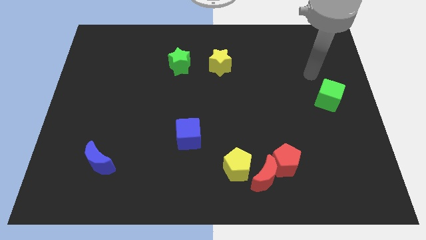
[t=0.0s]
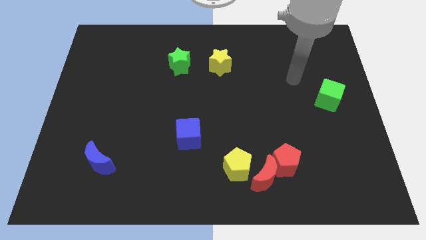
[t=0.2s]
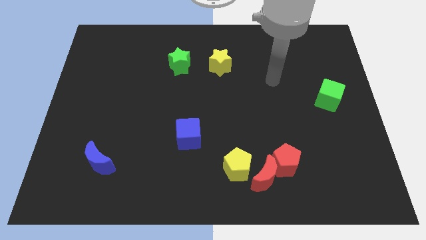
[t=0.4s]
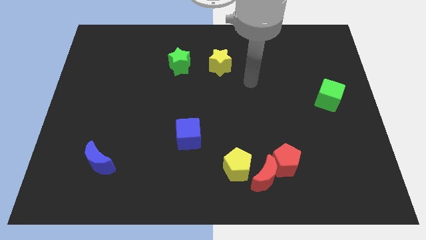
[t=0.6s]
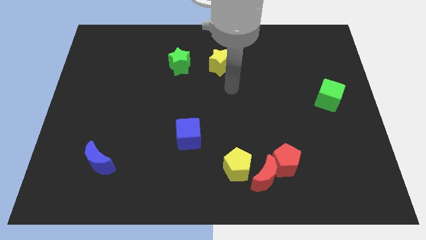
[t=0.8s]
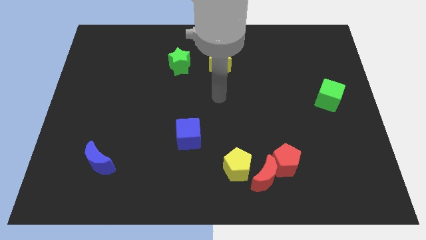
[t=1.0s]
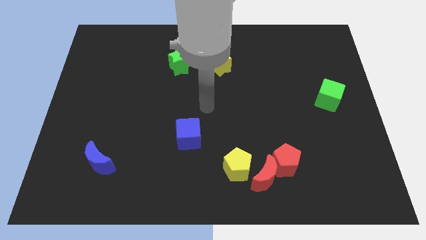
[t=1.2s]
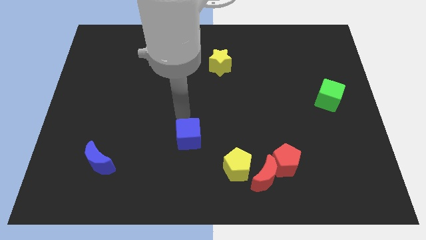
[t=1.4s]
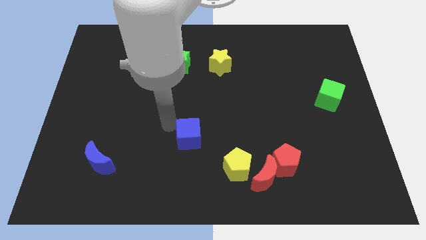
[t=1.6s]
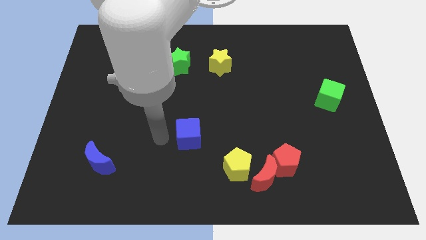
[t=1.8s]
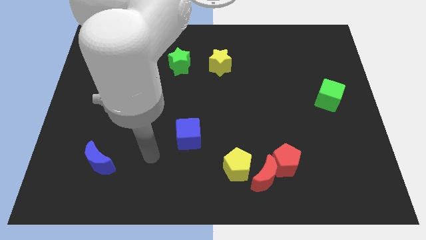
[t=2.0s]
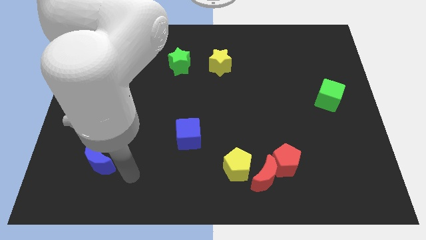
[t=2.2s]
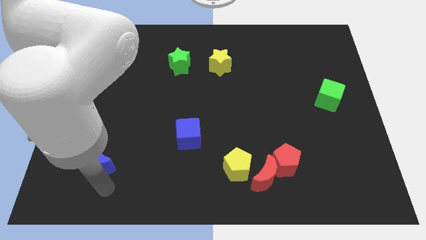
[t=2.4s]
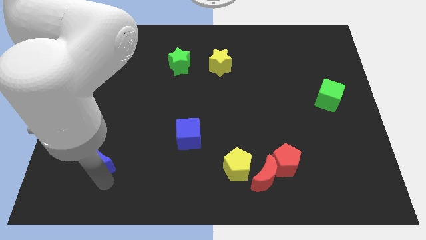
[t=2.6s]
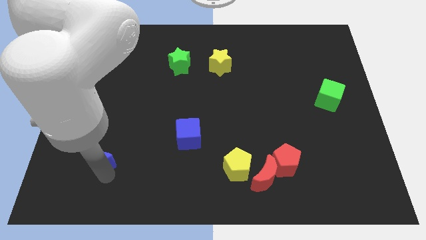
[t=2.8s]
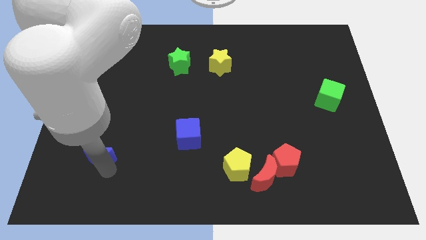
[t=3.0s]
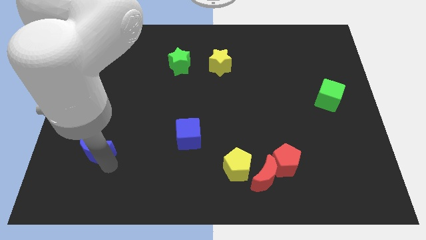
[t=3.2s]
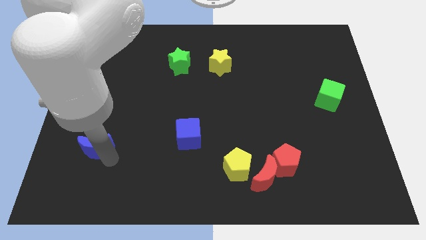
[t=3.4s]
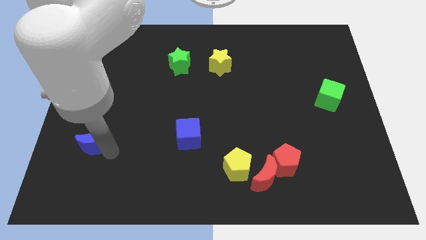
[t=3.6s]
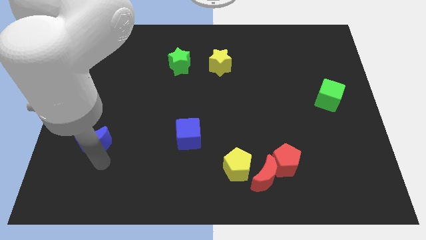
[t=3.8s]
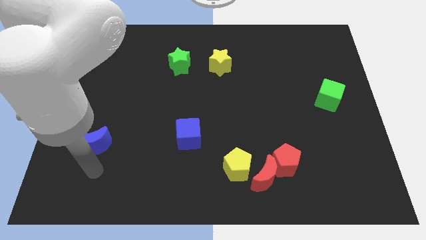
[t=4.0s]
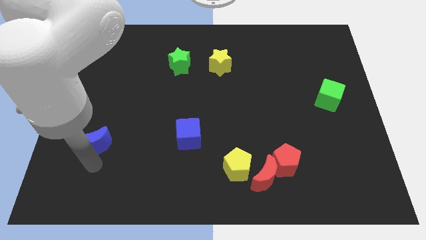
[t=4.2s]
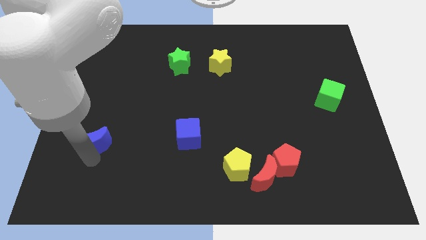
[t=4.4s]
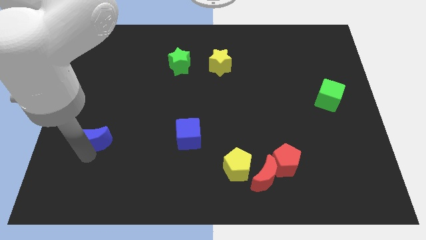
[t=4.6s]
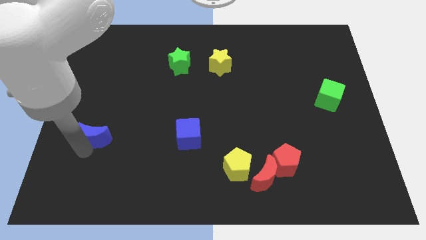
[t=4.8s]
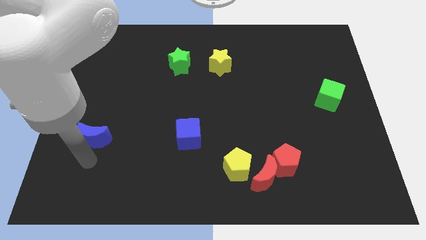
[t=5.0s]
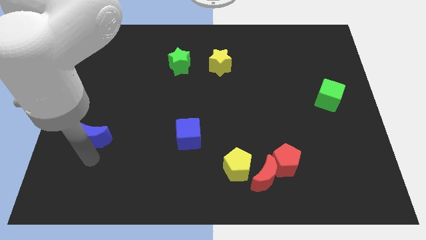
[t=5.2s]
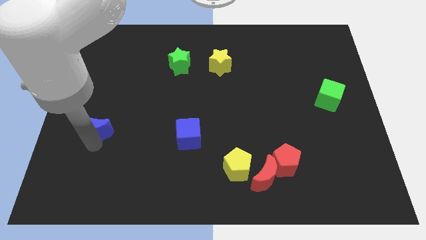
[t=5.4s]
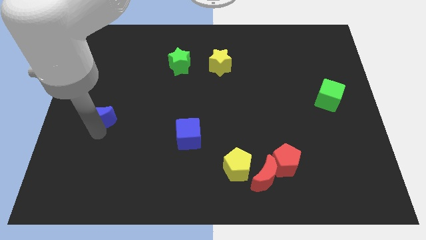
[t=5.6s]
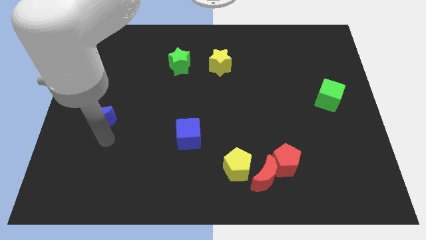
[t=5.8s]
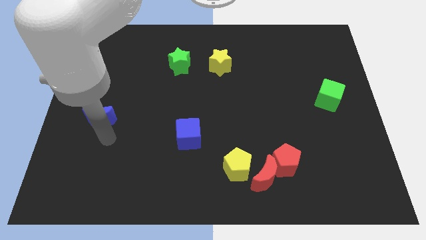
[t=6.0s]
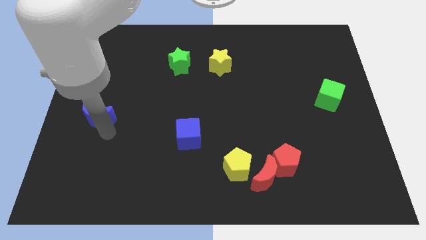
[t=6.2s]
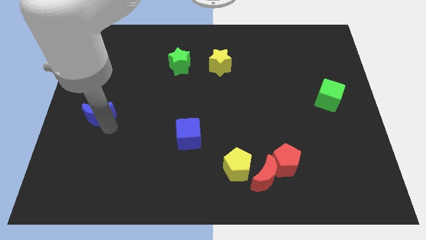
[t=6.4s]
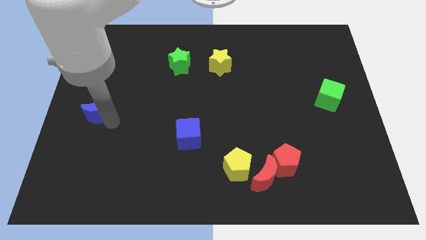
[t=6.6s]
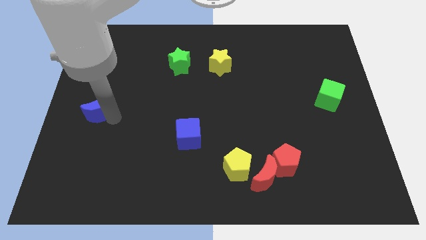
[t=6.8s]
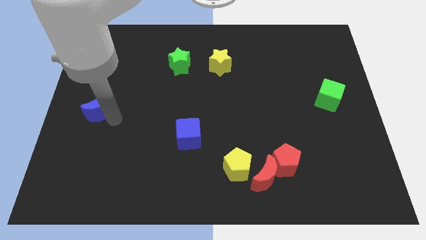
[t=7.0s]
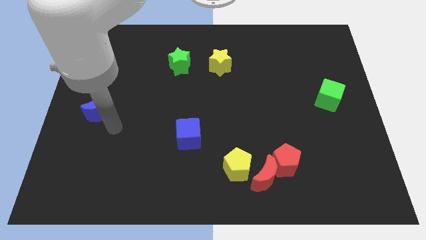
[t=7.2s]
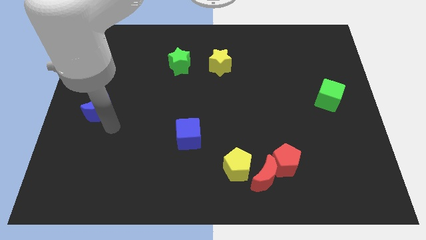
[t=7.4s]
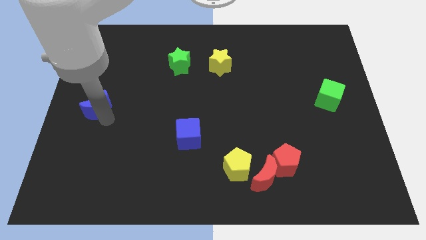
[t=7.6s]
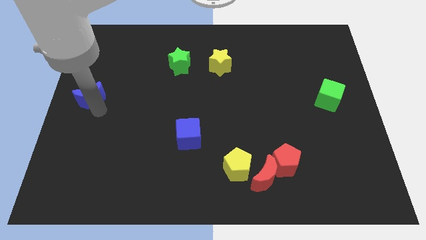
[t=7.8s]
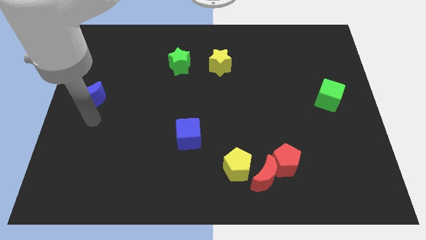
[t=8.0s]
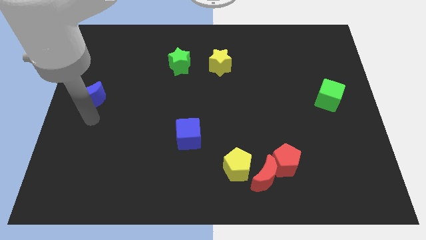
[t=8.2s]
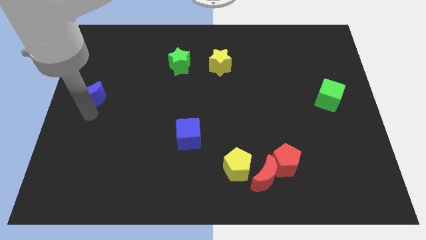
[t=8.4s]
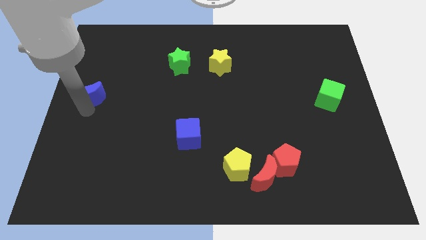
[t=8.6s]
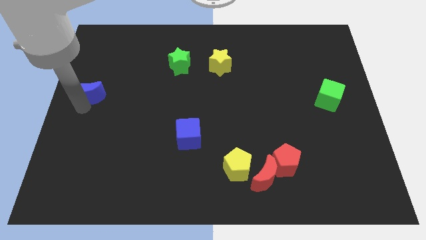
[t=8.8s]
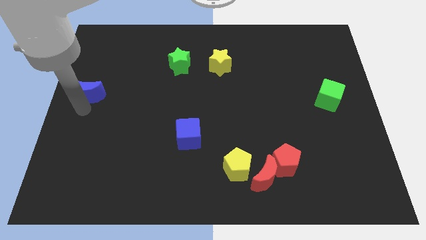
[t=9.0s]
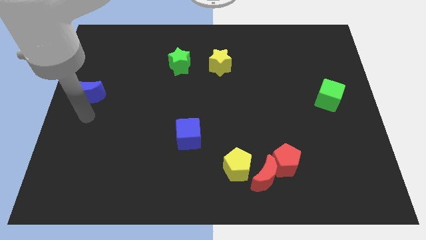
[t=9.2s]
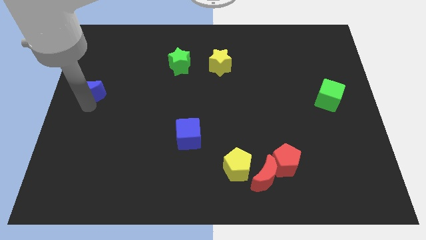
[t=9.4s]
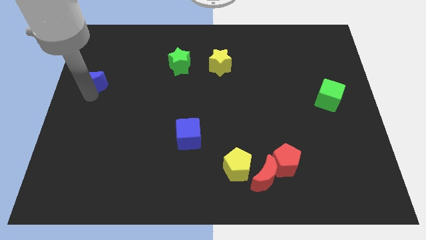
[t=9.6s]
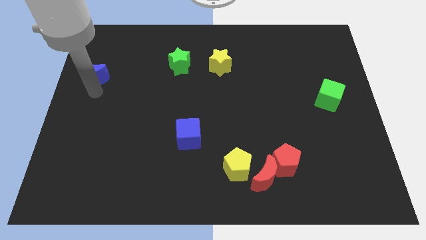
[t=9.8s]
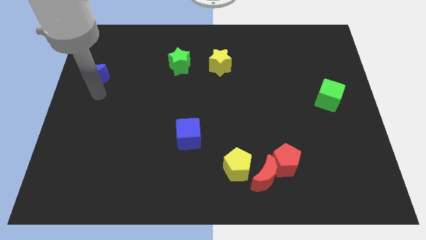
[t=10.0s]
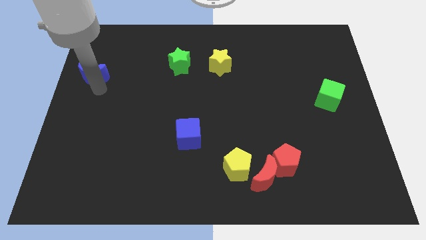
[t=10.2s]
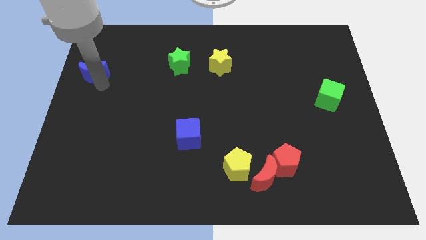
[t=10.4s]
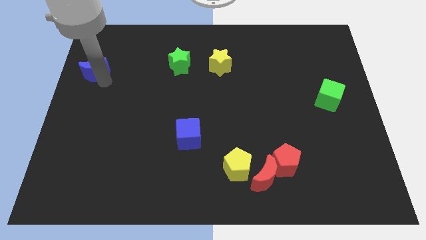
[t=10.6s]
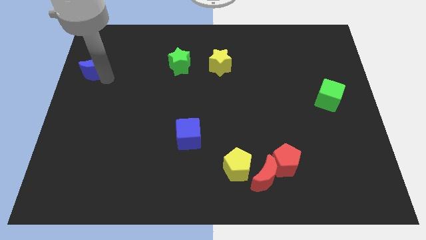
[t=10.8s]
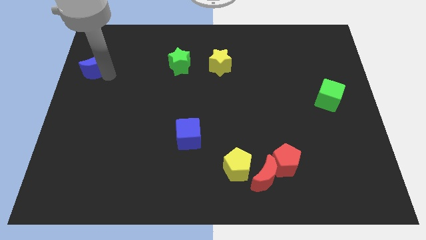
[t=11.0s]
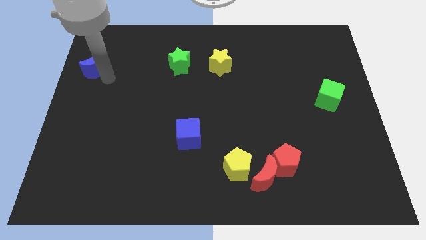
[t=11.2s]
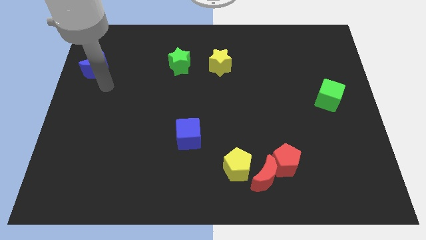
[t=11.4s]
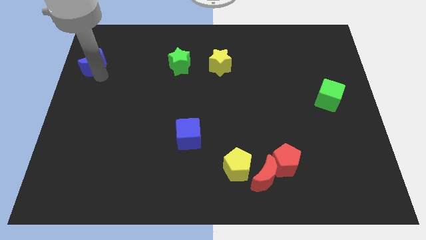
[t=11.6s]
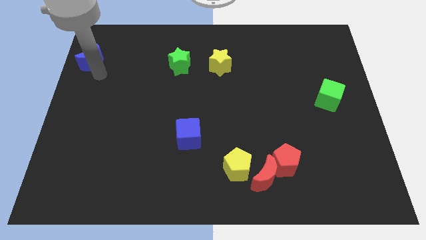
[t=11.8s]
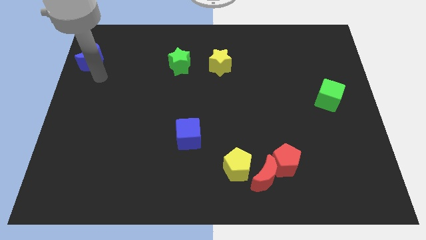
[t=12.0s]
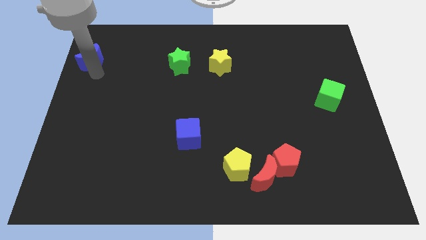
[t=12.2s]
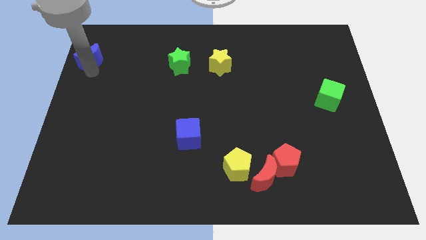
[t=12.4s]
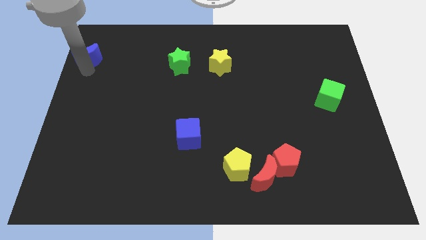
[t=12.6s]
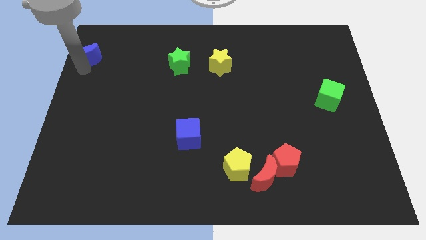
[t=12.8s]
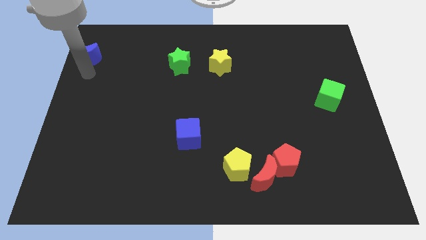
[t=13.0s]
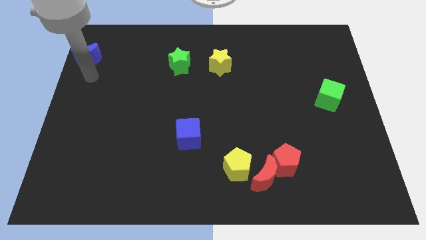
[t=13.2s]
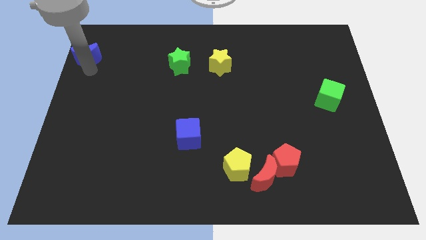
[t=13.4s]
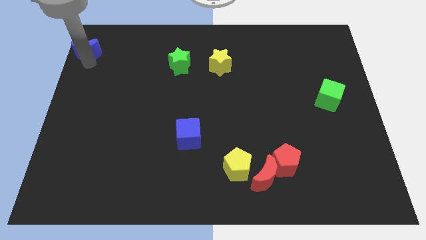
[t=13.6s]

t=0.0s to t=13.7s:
put the blue moon to the top left
